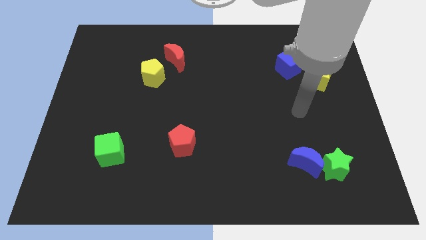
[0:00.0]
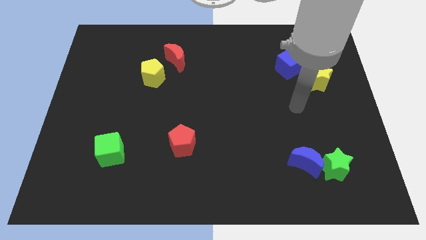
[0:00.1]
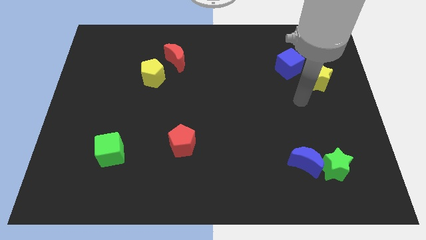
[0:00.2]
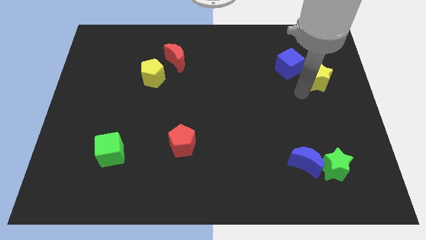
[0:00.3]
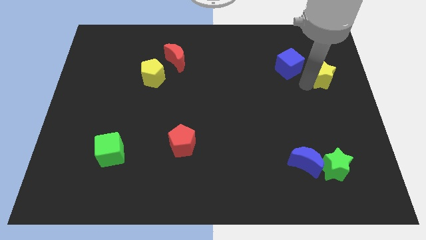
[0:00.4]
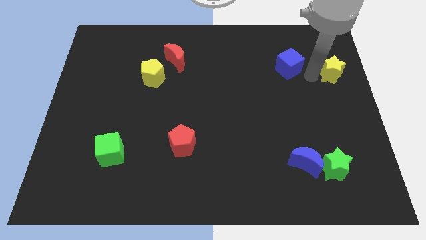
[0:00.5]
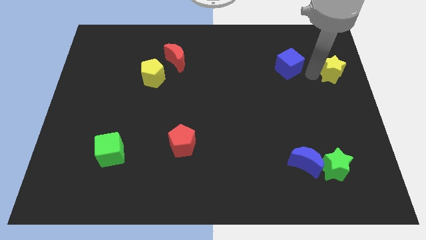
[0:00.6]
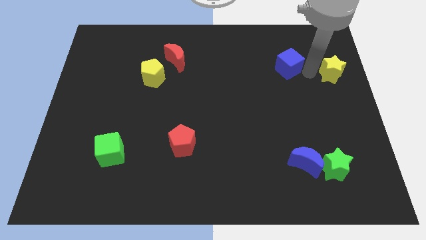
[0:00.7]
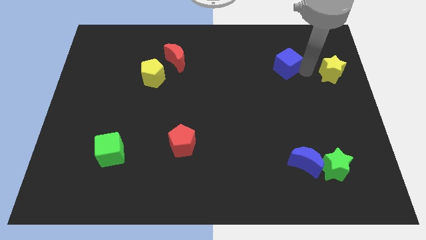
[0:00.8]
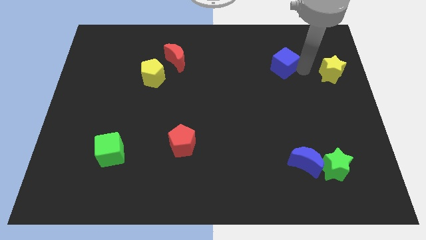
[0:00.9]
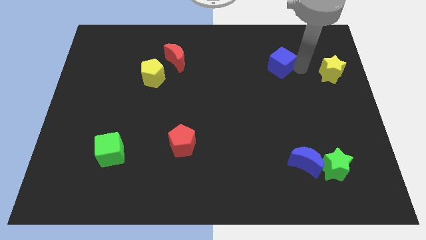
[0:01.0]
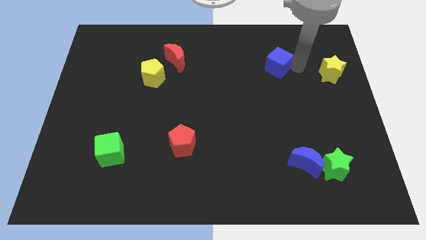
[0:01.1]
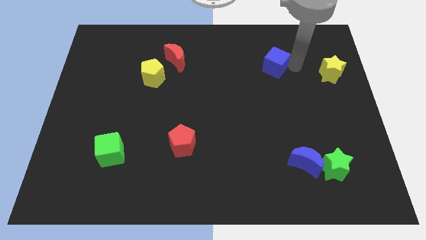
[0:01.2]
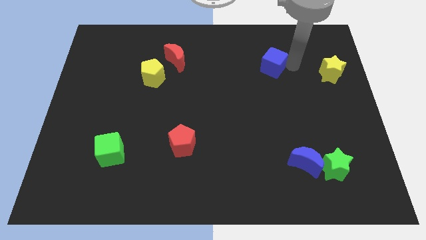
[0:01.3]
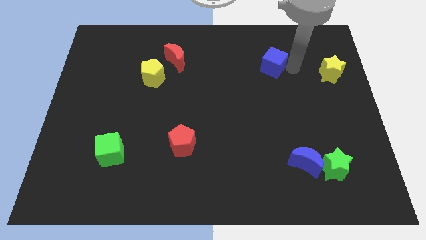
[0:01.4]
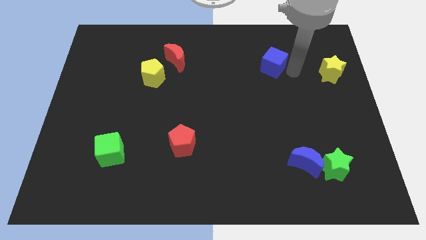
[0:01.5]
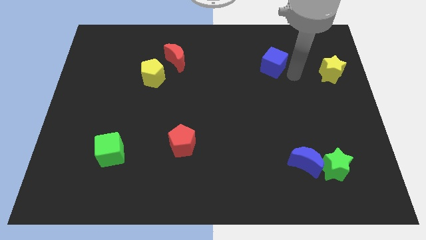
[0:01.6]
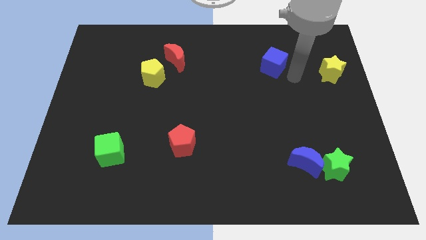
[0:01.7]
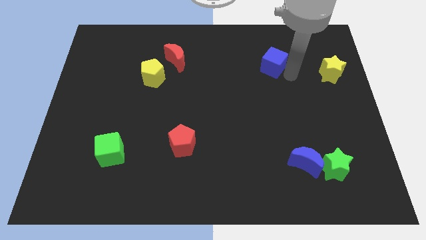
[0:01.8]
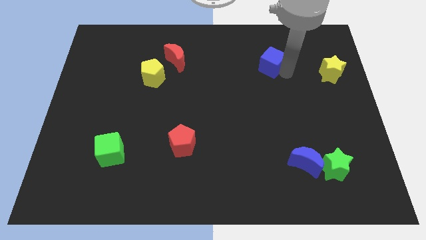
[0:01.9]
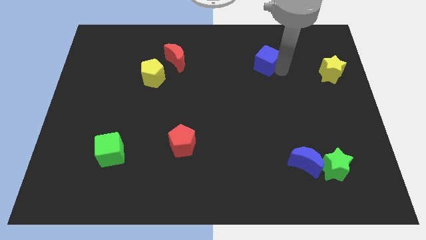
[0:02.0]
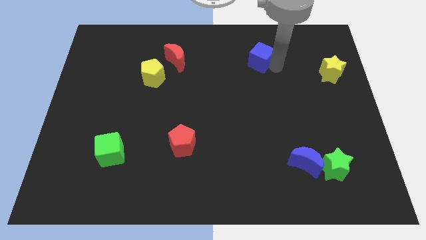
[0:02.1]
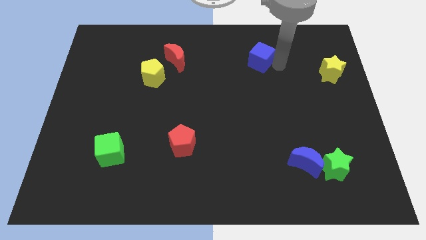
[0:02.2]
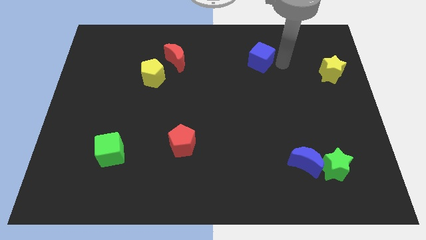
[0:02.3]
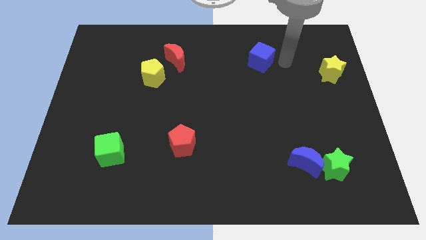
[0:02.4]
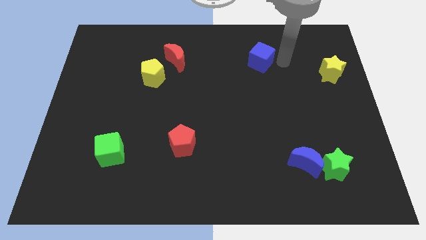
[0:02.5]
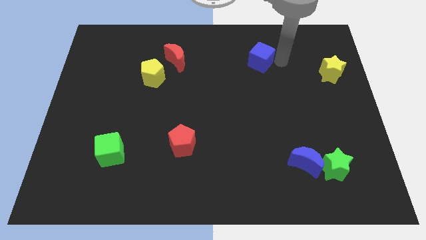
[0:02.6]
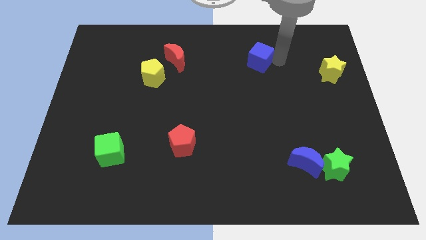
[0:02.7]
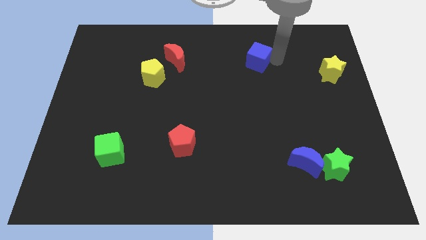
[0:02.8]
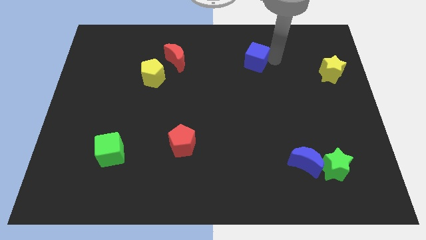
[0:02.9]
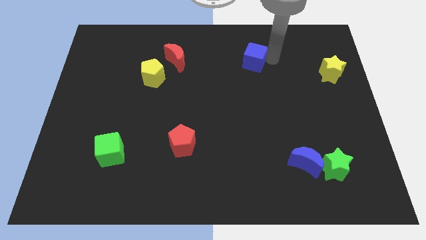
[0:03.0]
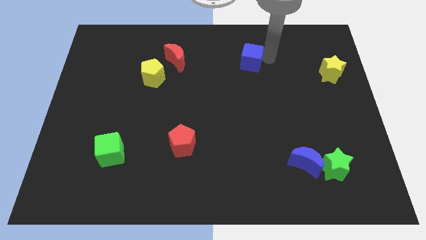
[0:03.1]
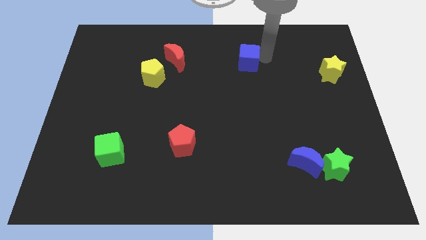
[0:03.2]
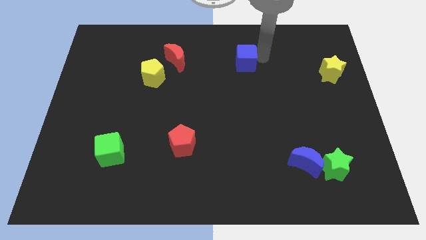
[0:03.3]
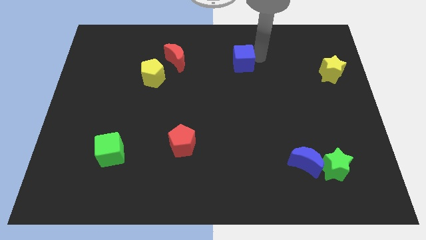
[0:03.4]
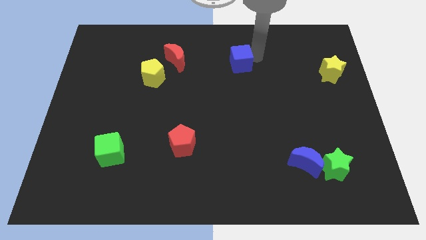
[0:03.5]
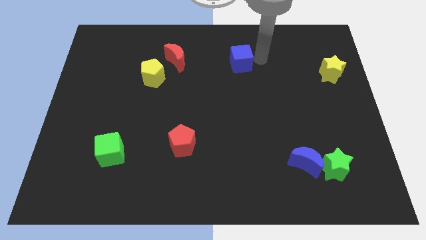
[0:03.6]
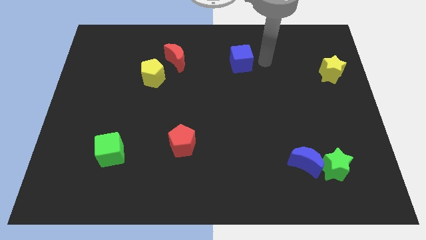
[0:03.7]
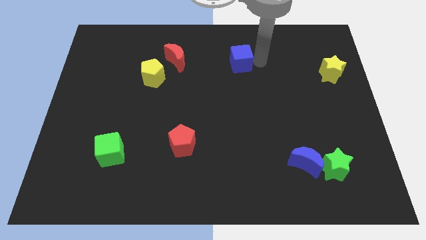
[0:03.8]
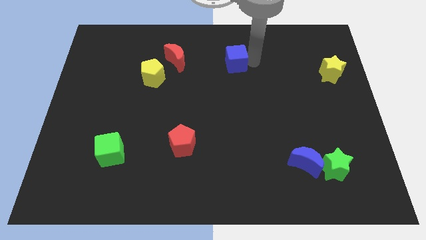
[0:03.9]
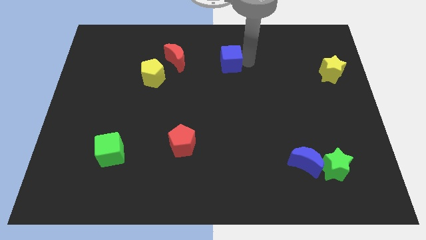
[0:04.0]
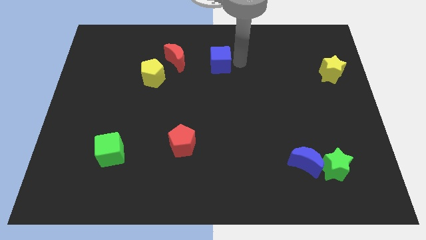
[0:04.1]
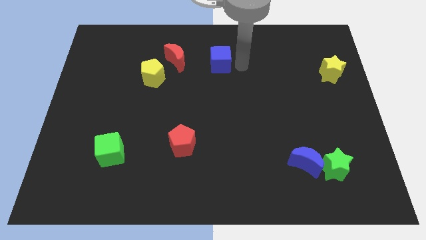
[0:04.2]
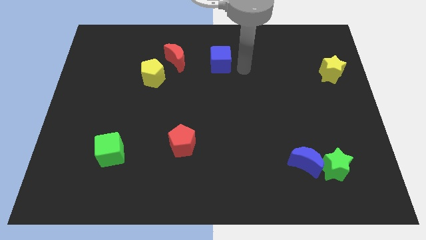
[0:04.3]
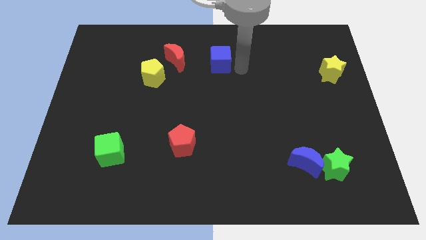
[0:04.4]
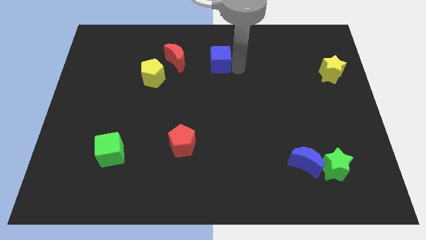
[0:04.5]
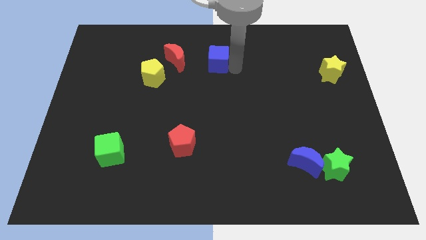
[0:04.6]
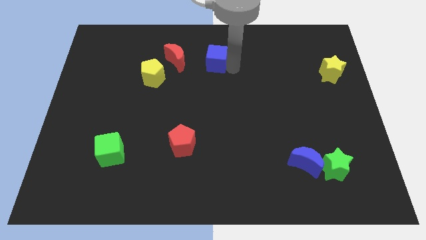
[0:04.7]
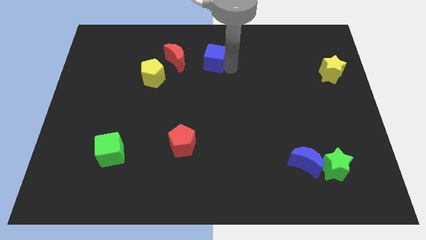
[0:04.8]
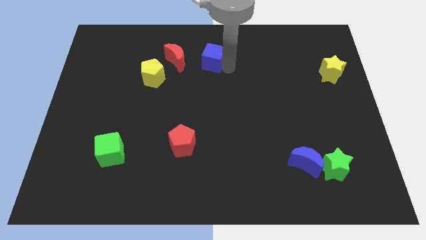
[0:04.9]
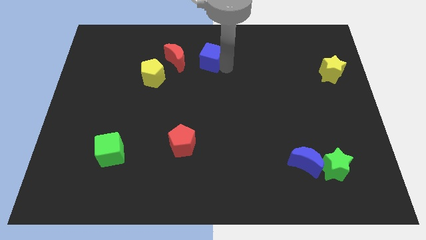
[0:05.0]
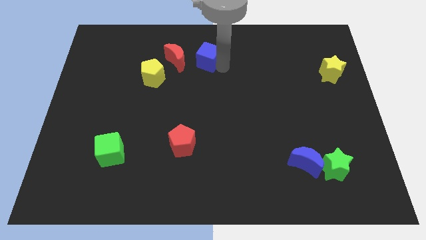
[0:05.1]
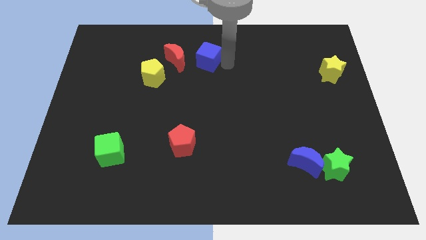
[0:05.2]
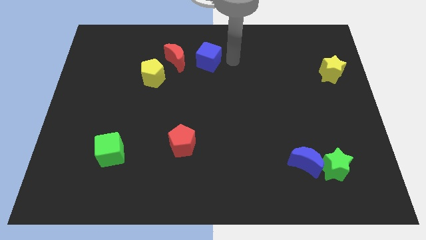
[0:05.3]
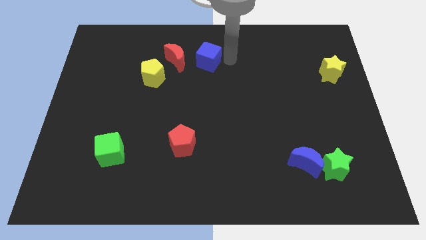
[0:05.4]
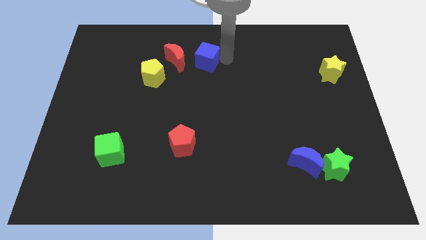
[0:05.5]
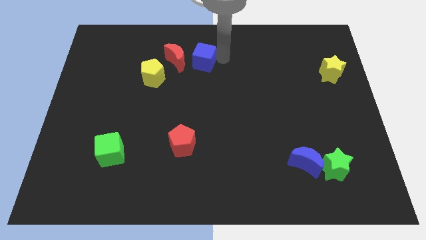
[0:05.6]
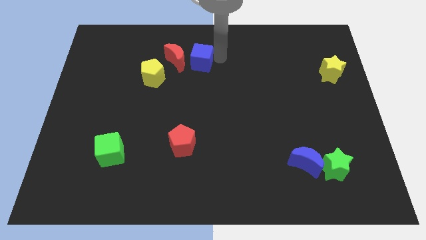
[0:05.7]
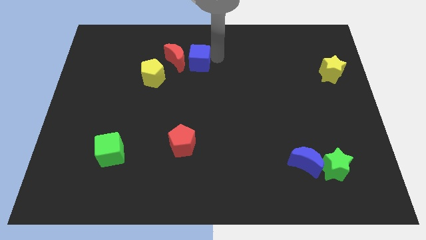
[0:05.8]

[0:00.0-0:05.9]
put the blue cube to the red moon

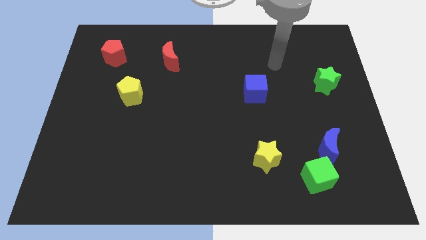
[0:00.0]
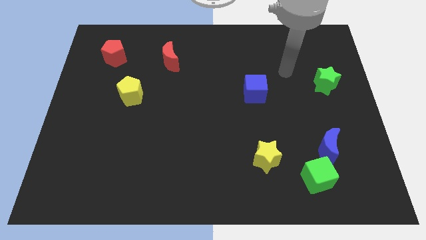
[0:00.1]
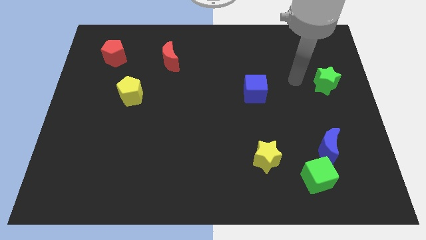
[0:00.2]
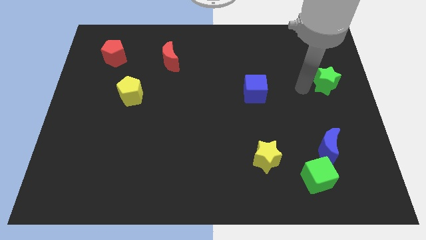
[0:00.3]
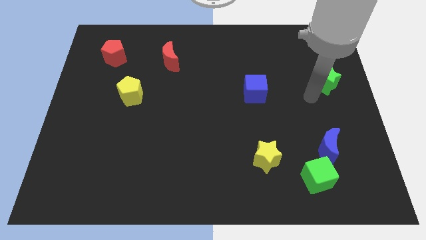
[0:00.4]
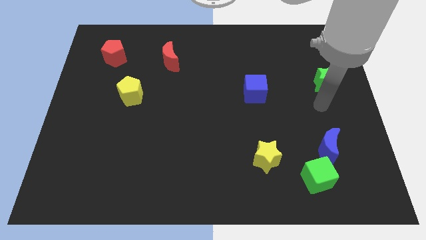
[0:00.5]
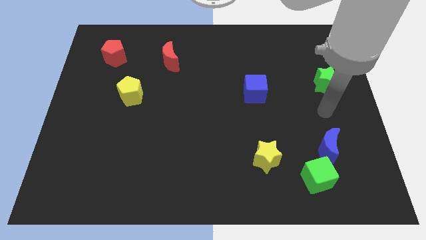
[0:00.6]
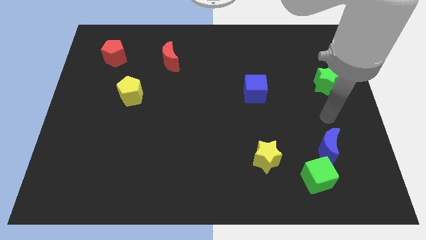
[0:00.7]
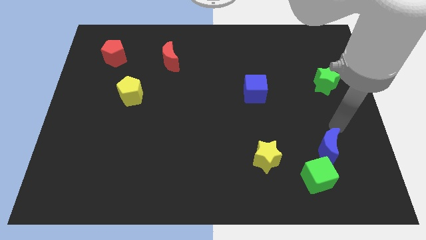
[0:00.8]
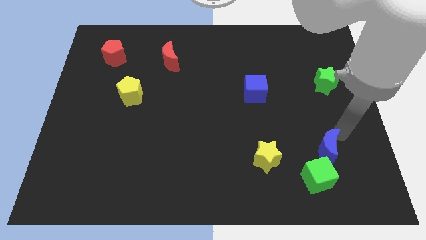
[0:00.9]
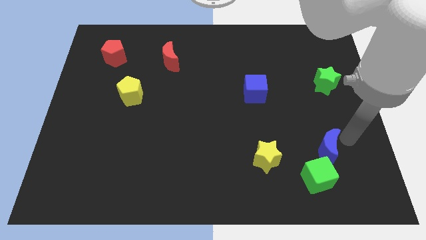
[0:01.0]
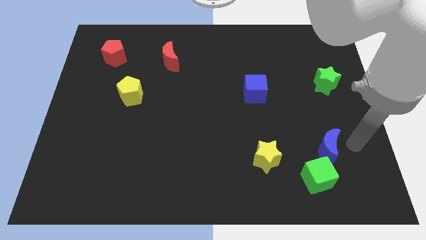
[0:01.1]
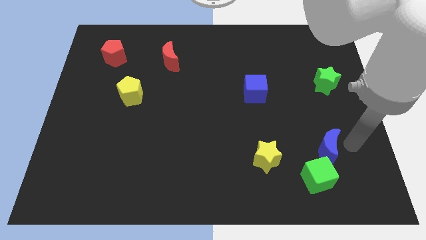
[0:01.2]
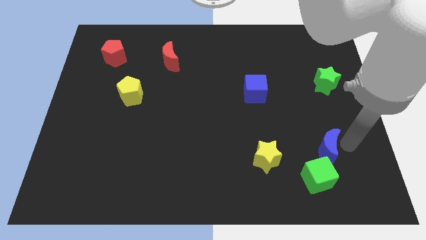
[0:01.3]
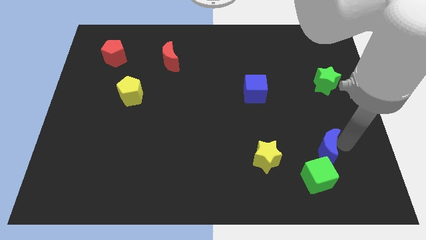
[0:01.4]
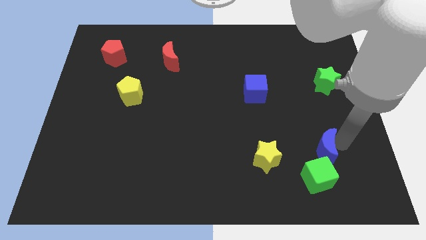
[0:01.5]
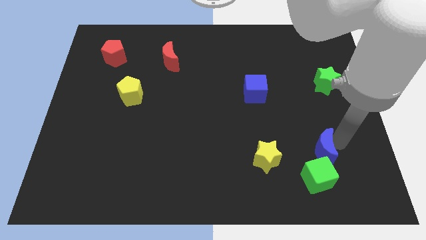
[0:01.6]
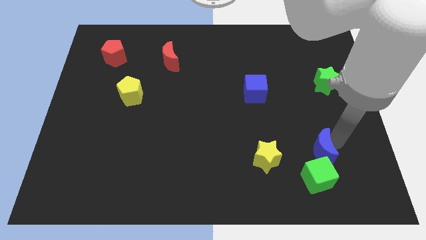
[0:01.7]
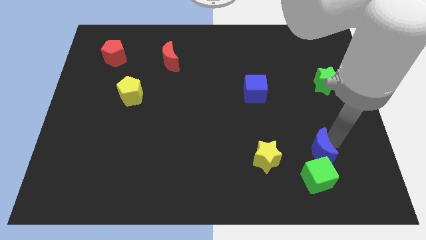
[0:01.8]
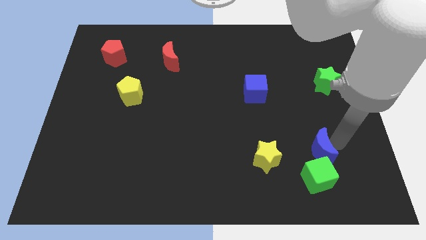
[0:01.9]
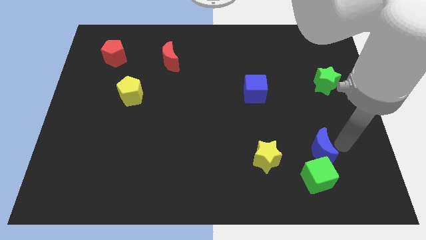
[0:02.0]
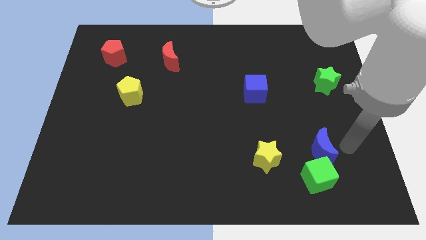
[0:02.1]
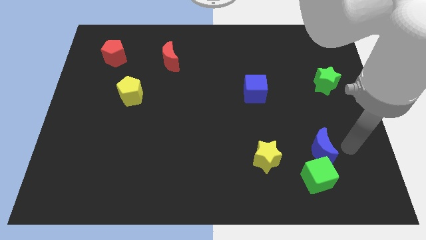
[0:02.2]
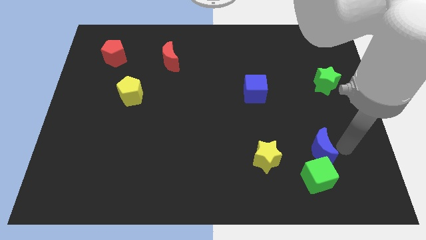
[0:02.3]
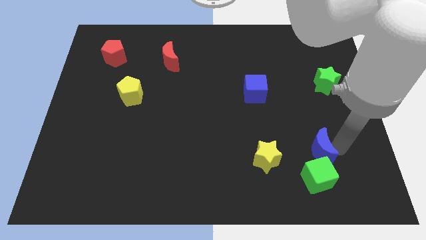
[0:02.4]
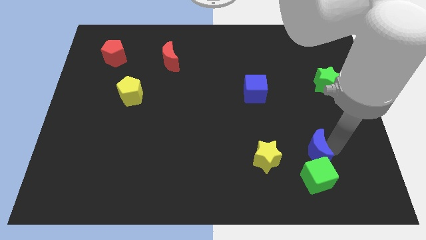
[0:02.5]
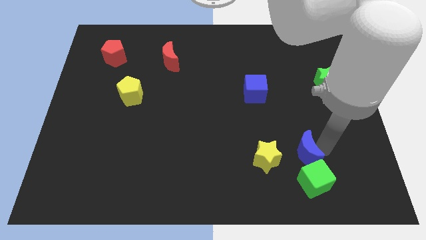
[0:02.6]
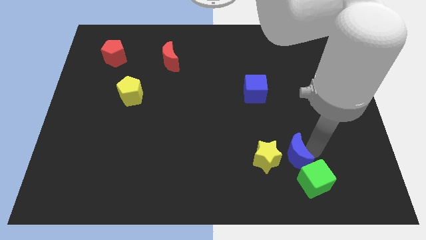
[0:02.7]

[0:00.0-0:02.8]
put the blue moon close to the yellow star
